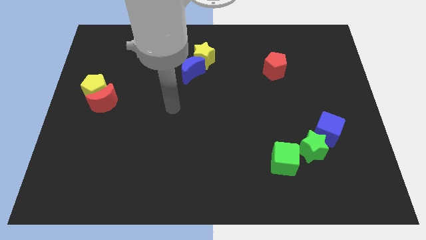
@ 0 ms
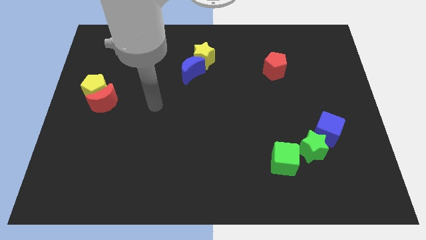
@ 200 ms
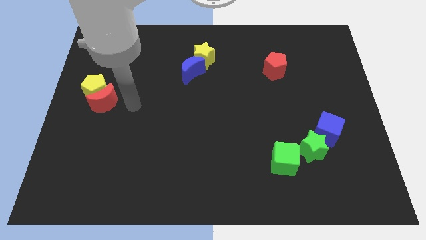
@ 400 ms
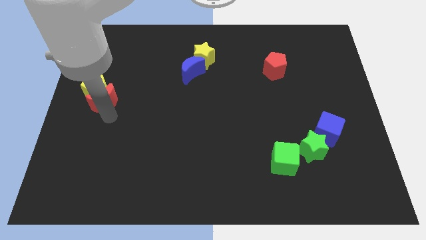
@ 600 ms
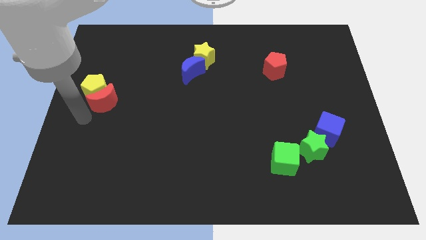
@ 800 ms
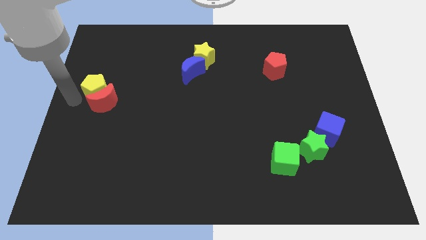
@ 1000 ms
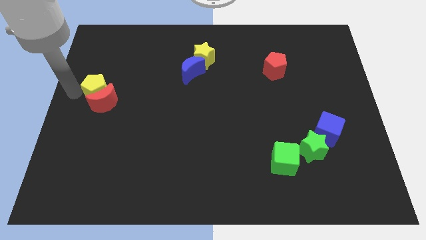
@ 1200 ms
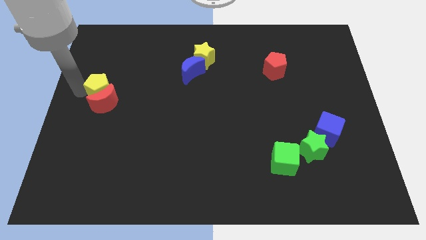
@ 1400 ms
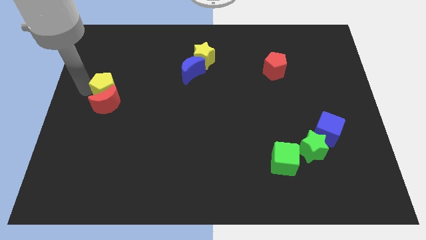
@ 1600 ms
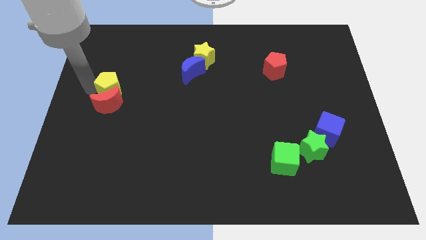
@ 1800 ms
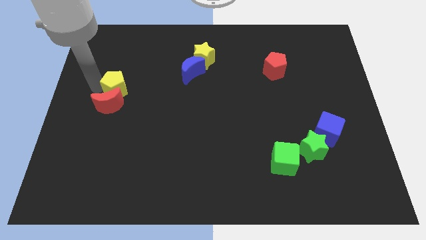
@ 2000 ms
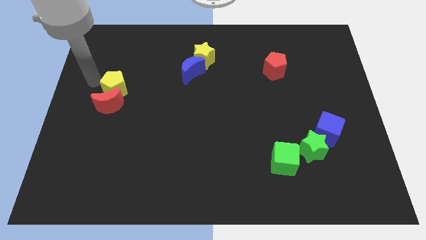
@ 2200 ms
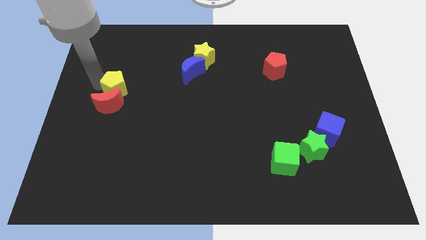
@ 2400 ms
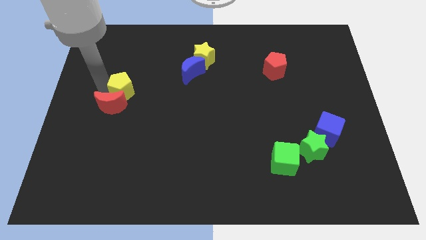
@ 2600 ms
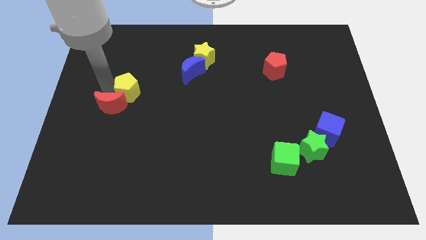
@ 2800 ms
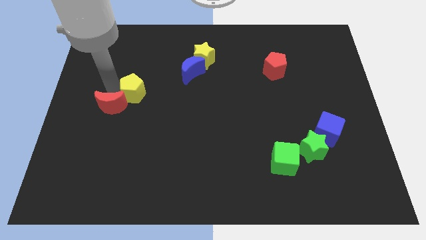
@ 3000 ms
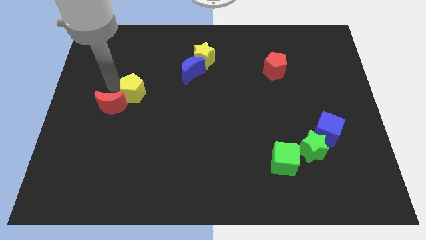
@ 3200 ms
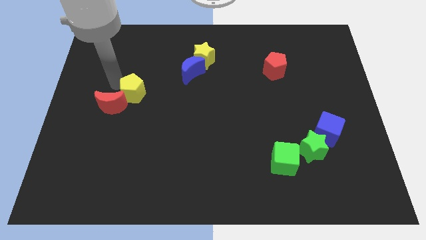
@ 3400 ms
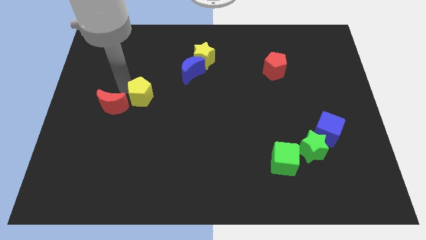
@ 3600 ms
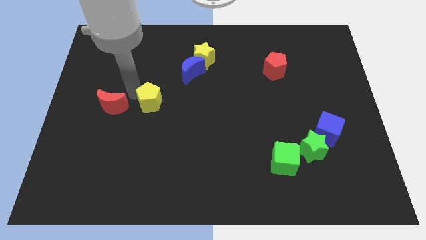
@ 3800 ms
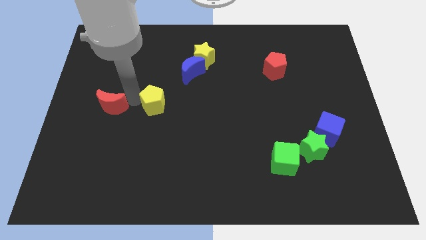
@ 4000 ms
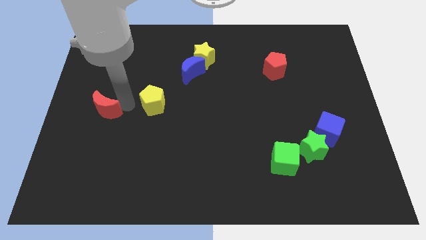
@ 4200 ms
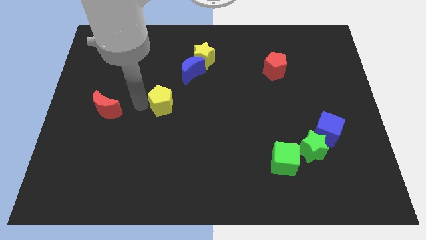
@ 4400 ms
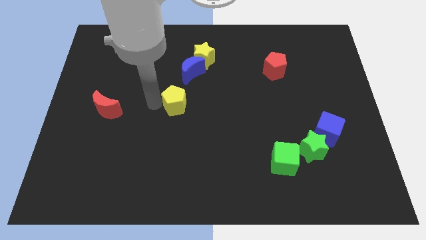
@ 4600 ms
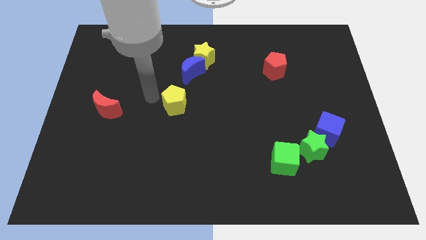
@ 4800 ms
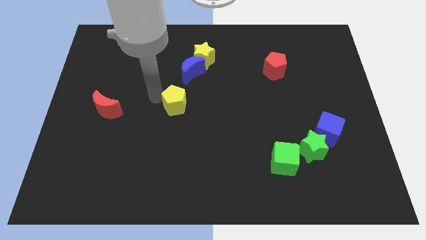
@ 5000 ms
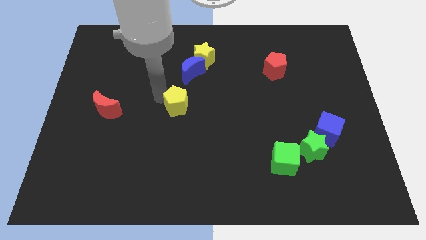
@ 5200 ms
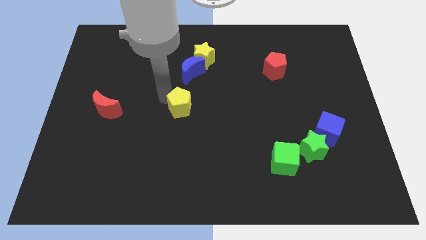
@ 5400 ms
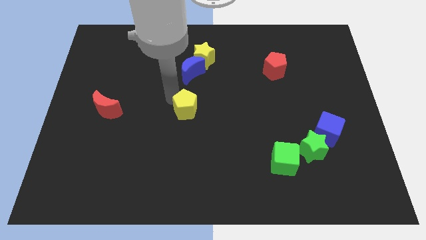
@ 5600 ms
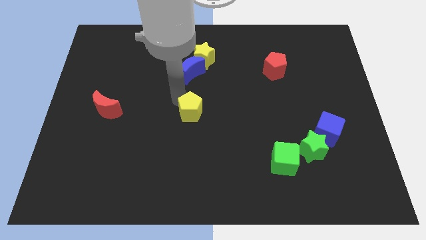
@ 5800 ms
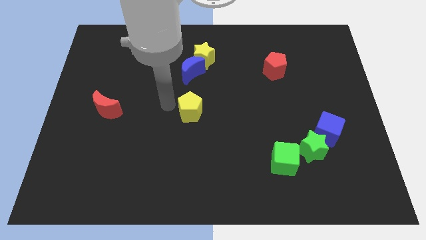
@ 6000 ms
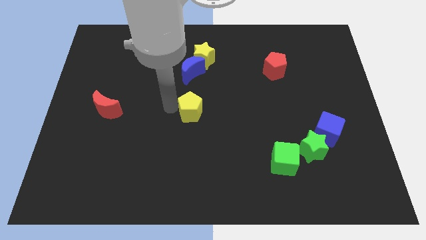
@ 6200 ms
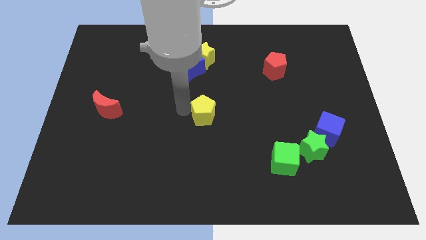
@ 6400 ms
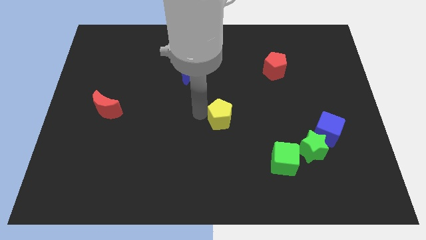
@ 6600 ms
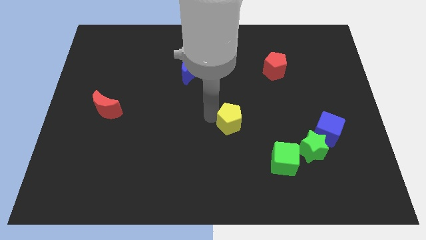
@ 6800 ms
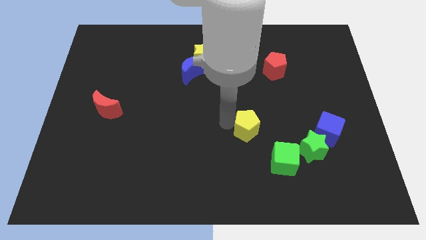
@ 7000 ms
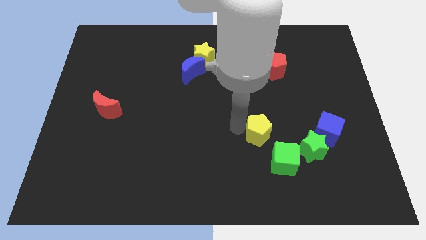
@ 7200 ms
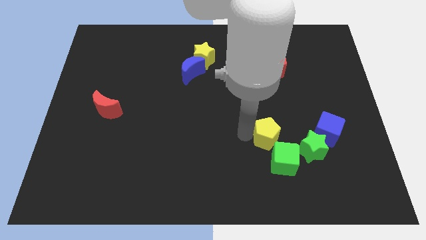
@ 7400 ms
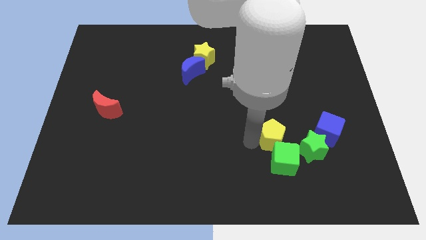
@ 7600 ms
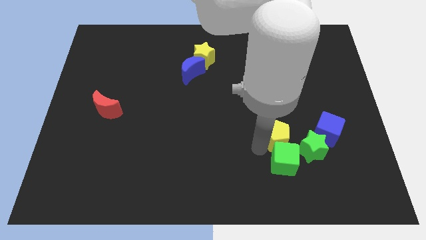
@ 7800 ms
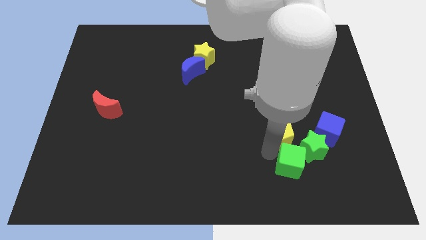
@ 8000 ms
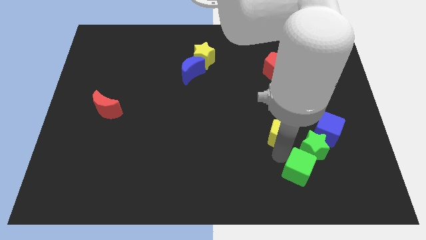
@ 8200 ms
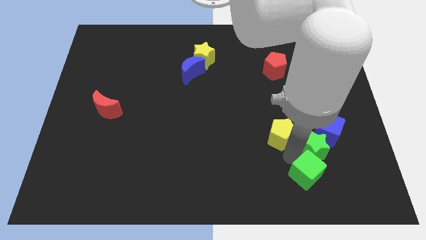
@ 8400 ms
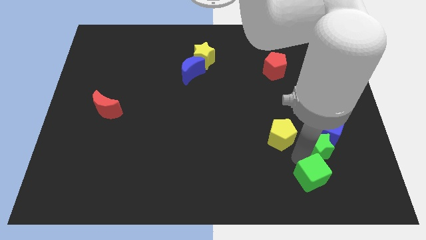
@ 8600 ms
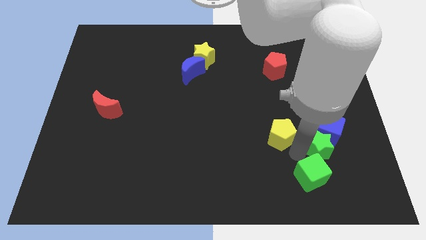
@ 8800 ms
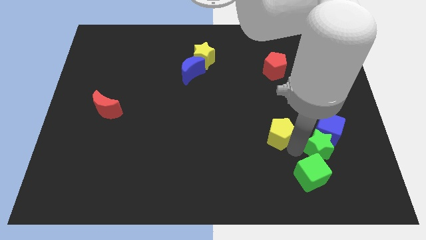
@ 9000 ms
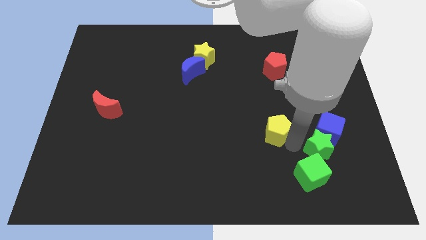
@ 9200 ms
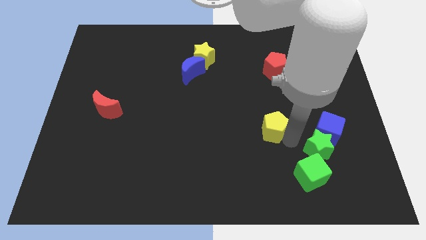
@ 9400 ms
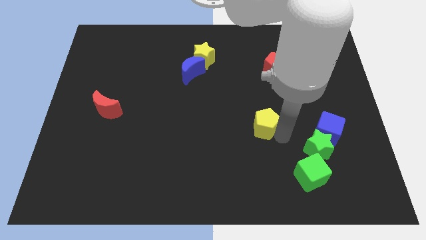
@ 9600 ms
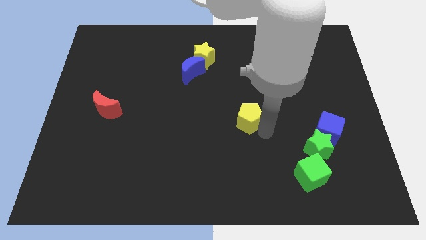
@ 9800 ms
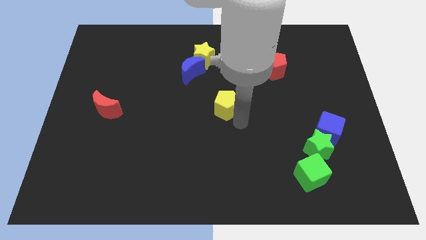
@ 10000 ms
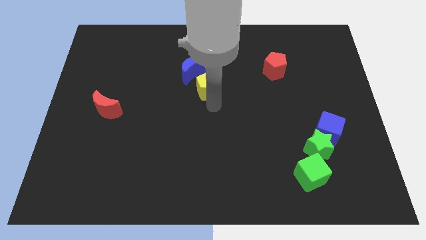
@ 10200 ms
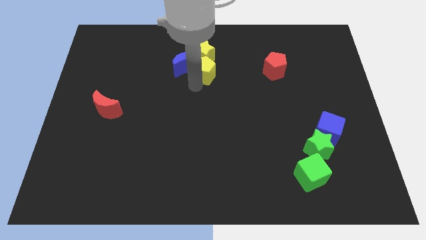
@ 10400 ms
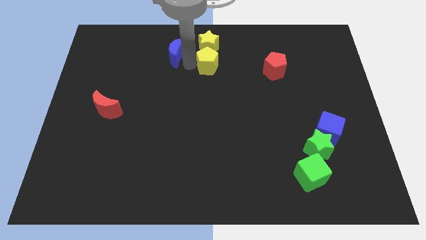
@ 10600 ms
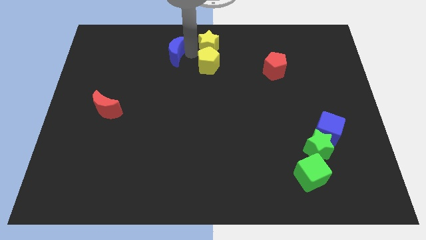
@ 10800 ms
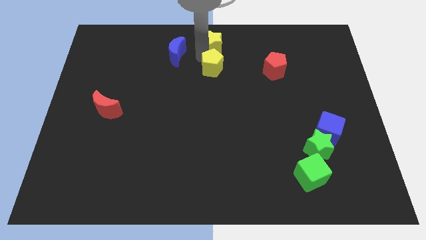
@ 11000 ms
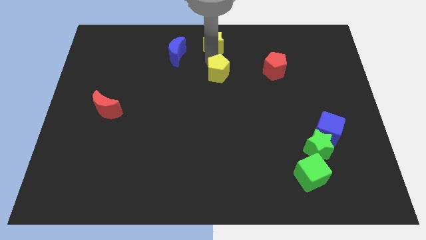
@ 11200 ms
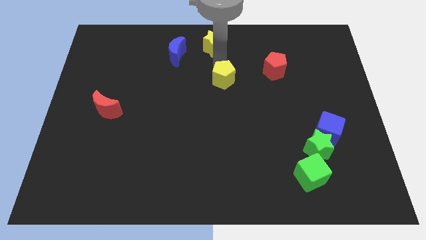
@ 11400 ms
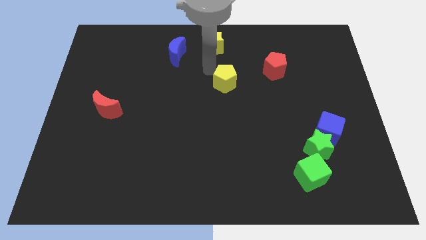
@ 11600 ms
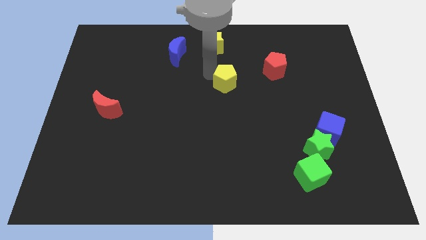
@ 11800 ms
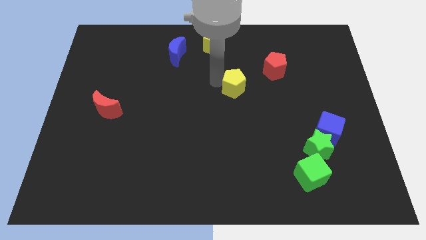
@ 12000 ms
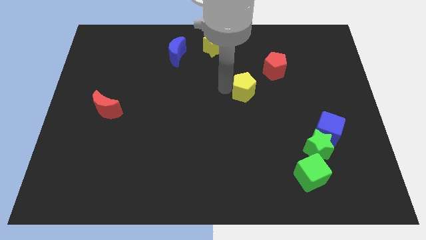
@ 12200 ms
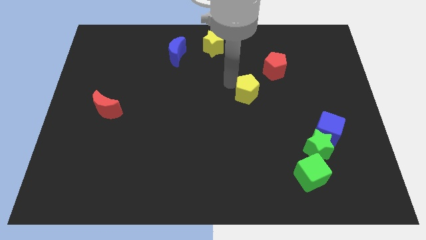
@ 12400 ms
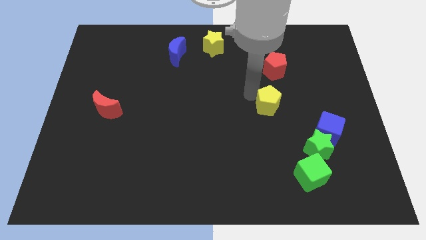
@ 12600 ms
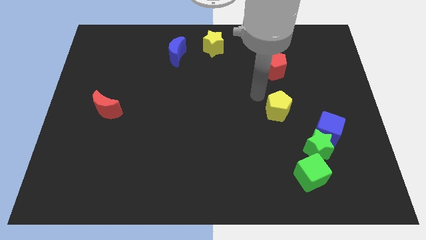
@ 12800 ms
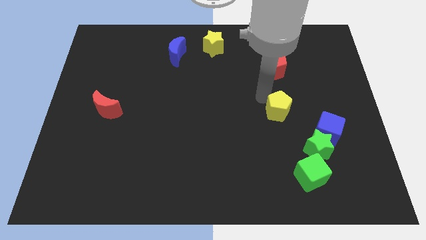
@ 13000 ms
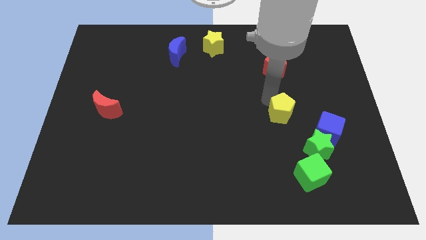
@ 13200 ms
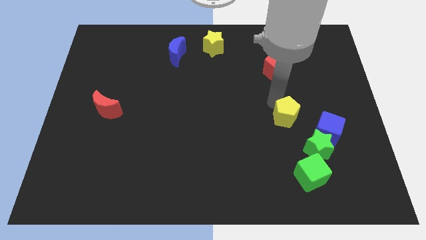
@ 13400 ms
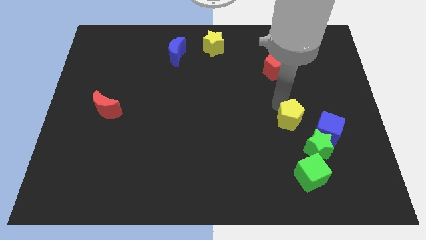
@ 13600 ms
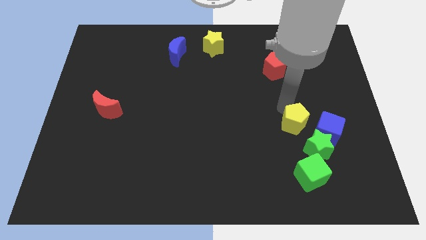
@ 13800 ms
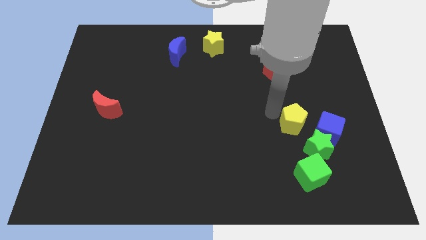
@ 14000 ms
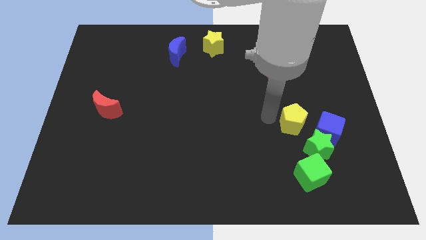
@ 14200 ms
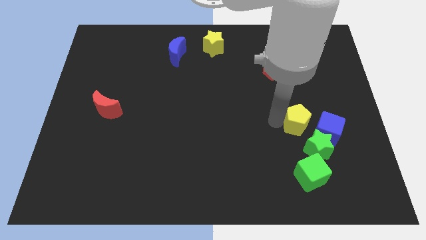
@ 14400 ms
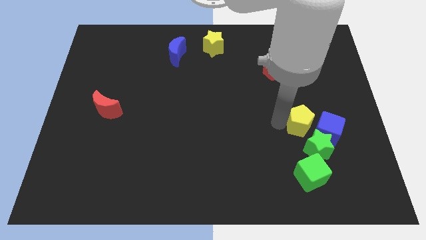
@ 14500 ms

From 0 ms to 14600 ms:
put the yellow pentagon towards the blue cube
